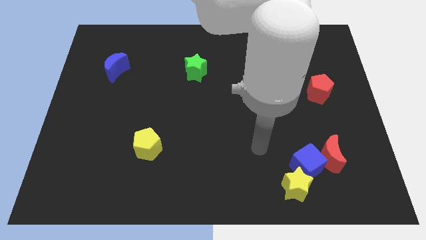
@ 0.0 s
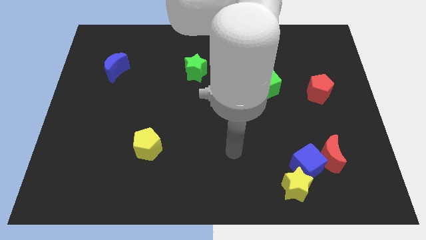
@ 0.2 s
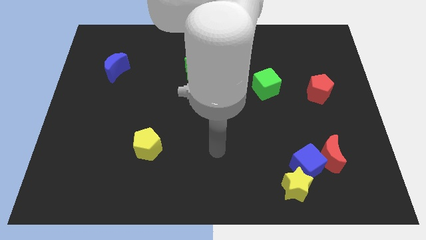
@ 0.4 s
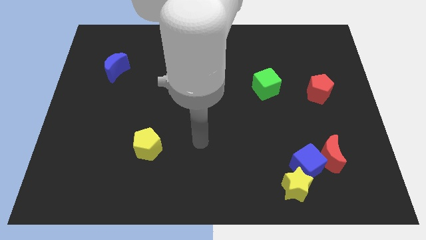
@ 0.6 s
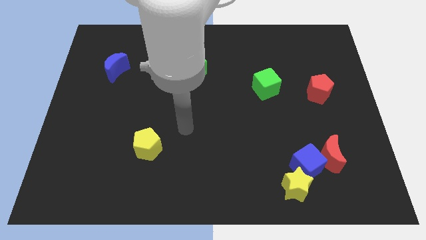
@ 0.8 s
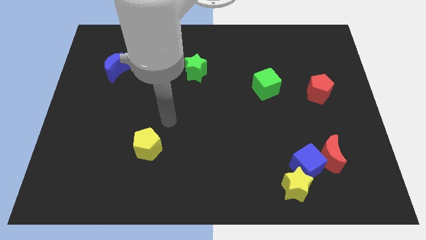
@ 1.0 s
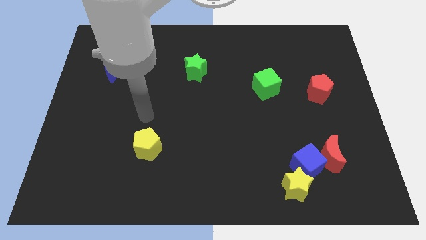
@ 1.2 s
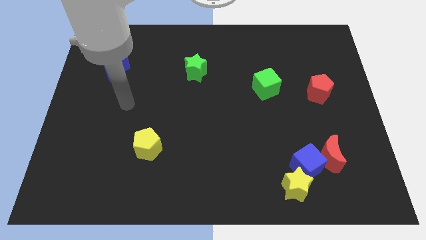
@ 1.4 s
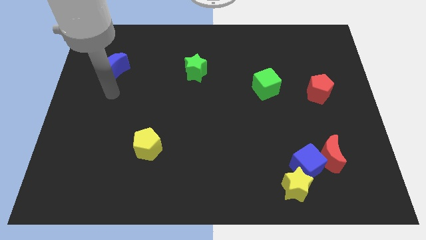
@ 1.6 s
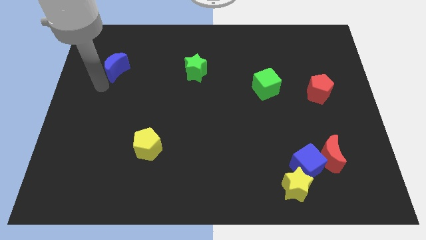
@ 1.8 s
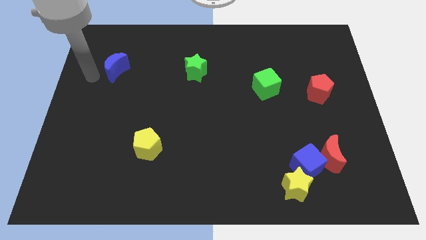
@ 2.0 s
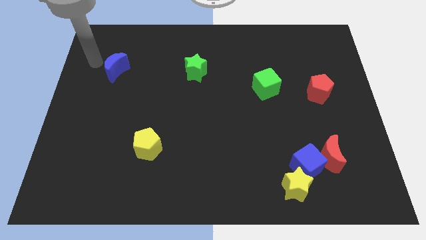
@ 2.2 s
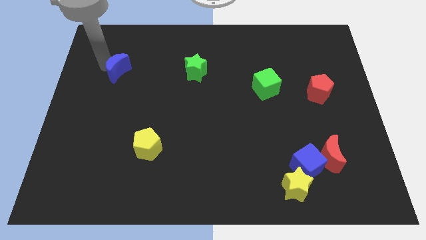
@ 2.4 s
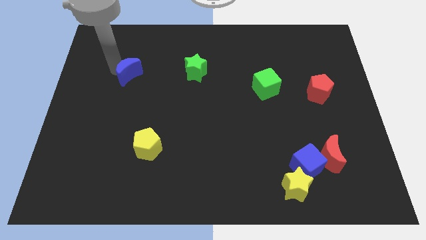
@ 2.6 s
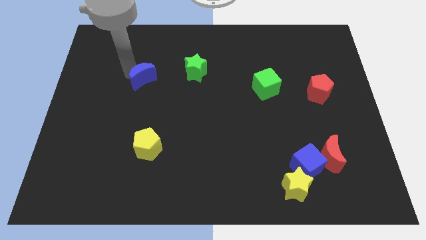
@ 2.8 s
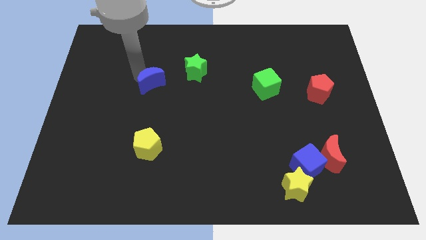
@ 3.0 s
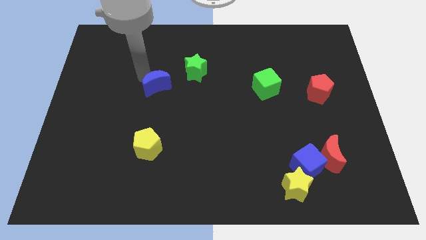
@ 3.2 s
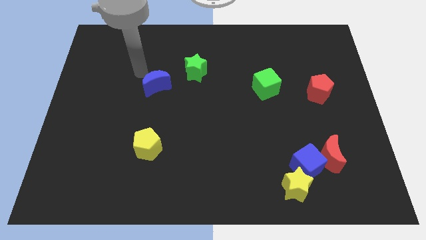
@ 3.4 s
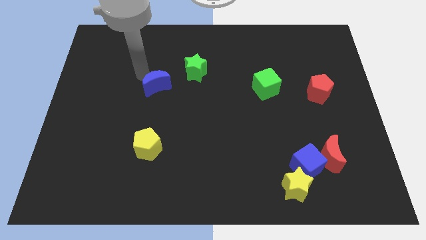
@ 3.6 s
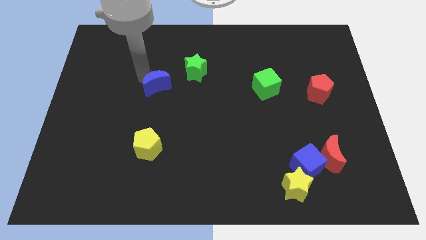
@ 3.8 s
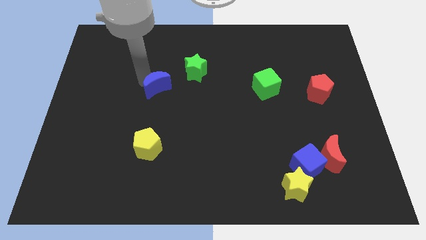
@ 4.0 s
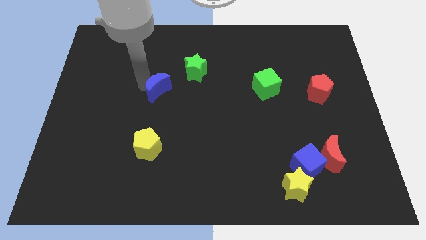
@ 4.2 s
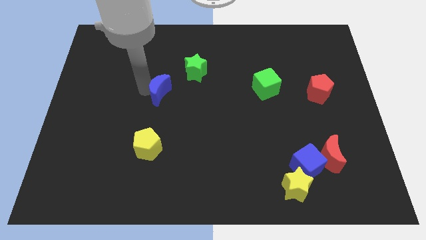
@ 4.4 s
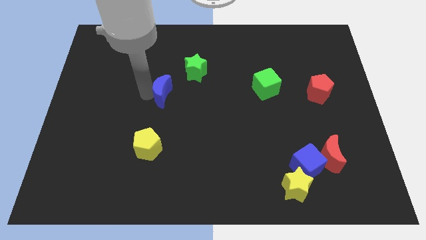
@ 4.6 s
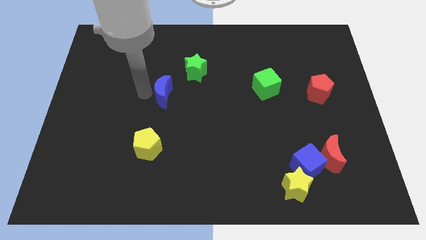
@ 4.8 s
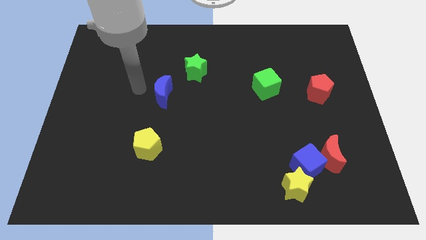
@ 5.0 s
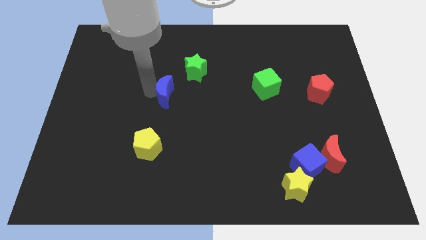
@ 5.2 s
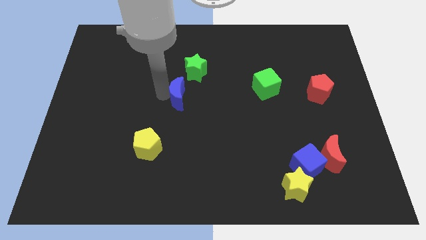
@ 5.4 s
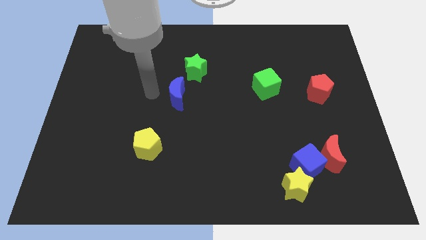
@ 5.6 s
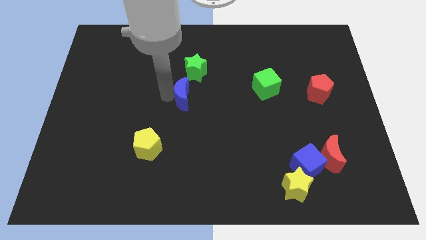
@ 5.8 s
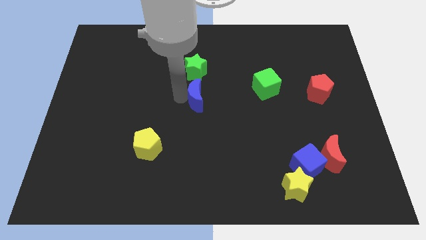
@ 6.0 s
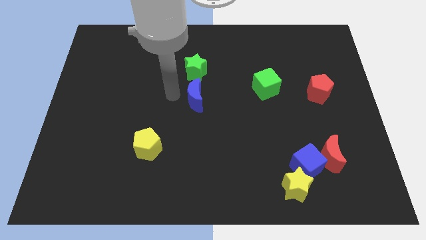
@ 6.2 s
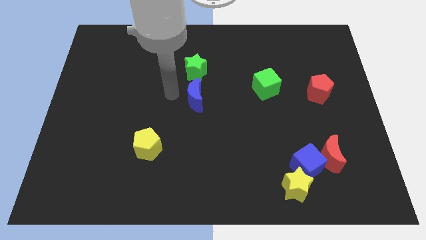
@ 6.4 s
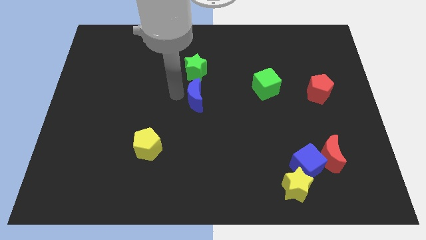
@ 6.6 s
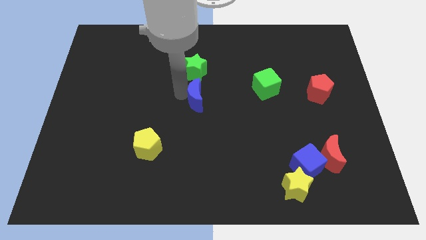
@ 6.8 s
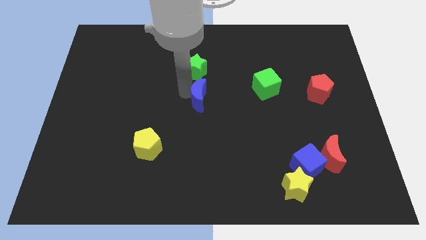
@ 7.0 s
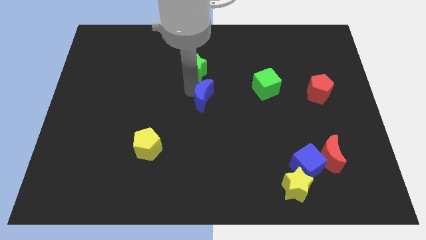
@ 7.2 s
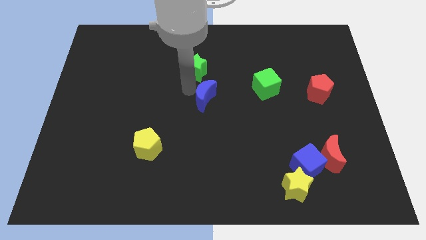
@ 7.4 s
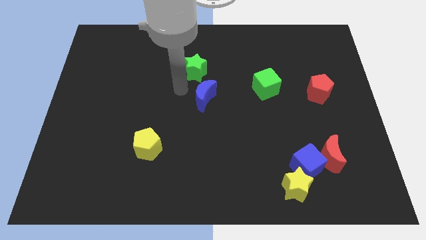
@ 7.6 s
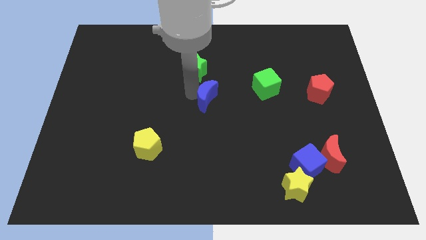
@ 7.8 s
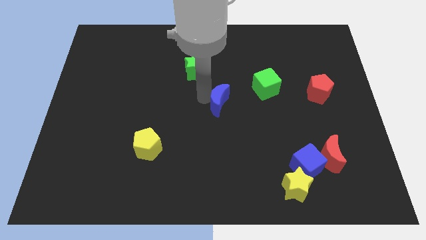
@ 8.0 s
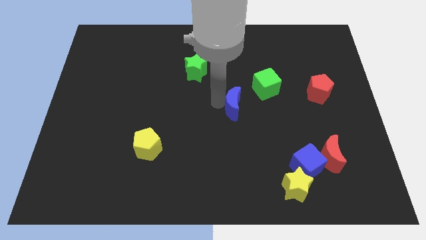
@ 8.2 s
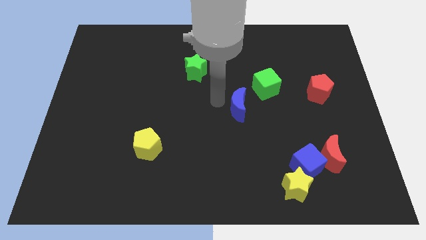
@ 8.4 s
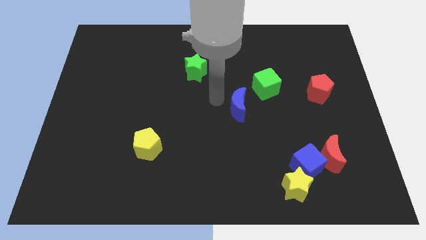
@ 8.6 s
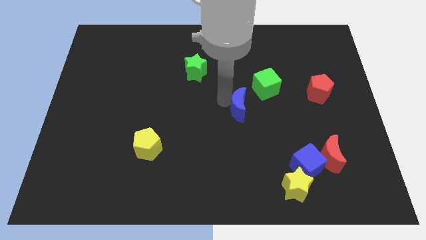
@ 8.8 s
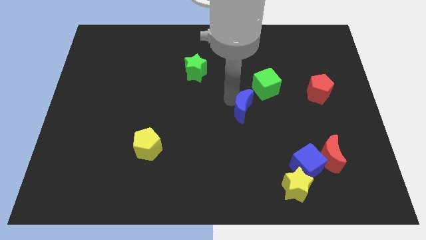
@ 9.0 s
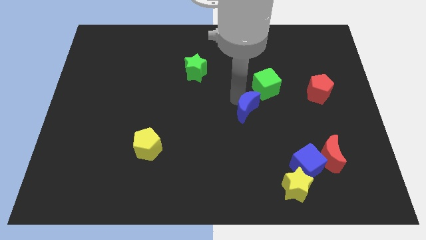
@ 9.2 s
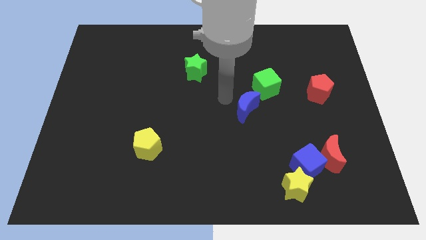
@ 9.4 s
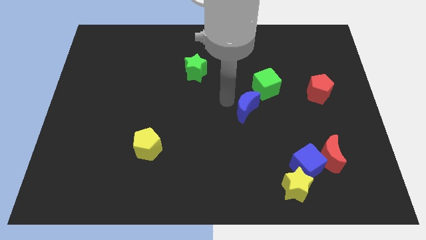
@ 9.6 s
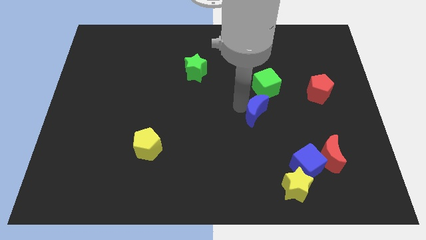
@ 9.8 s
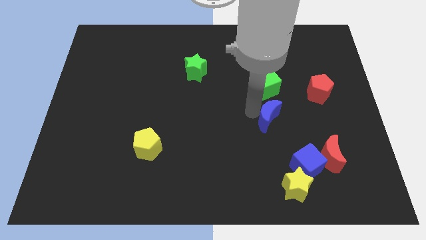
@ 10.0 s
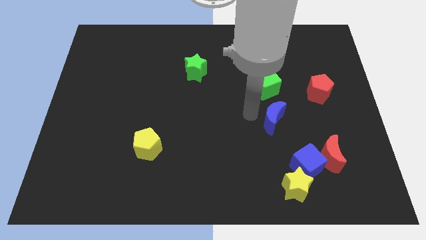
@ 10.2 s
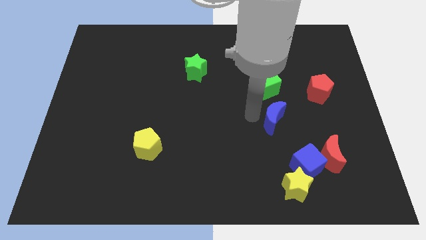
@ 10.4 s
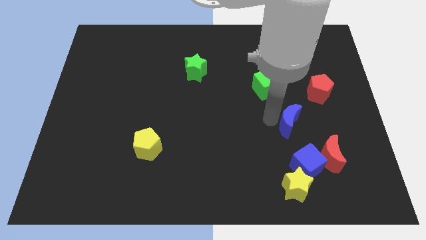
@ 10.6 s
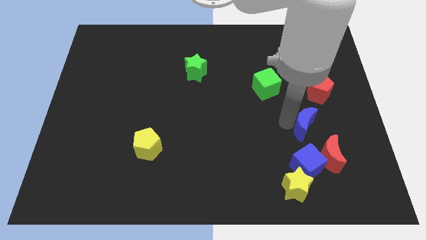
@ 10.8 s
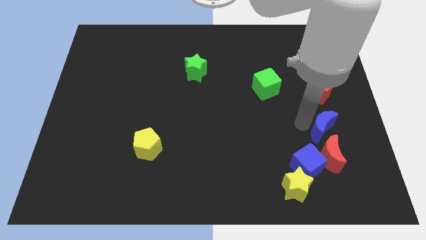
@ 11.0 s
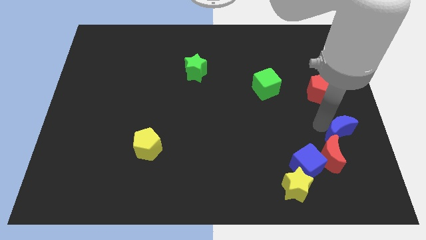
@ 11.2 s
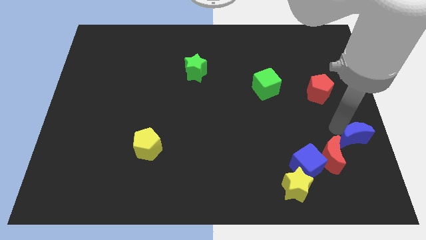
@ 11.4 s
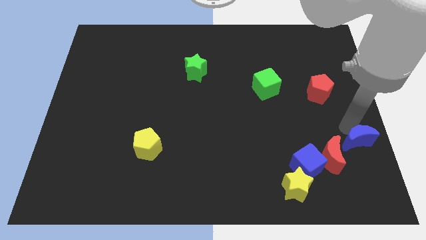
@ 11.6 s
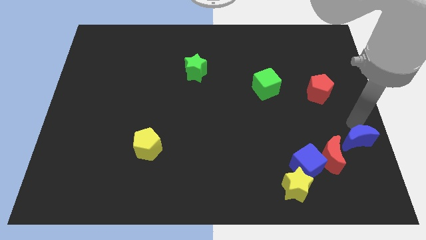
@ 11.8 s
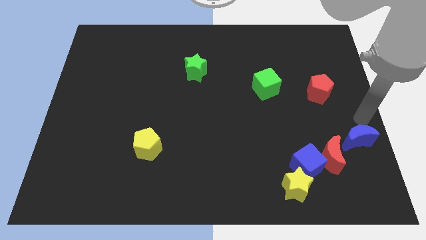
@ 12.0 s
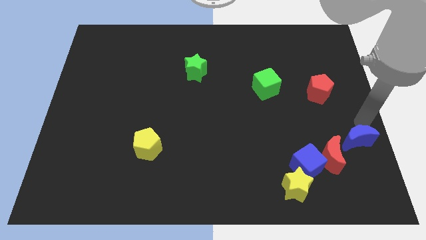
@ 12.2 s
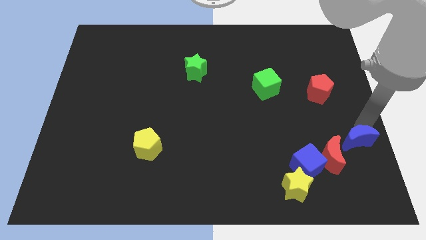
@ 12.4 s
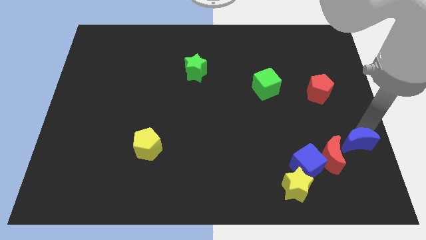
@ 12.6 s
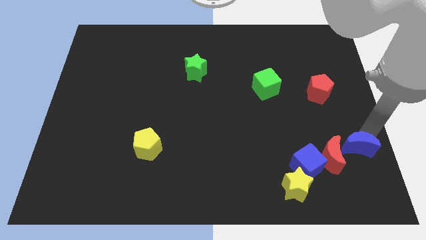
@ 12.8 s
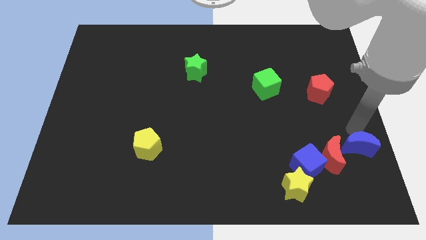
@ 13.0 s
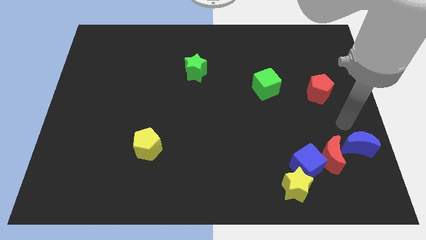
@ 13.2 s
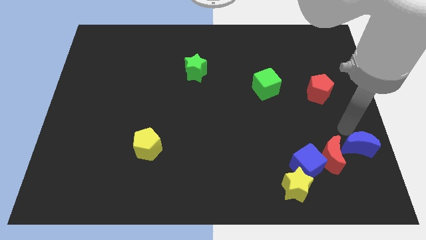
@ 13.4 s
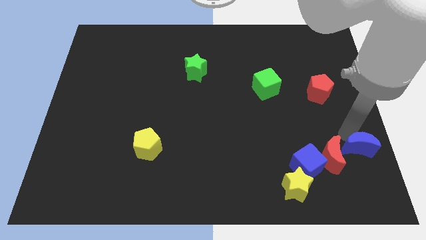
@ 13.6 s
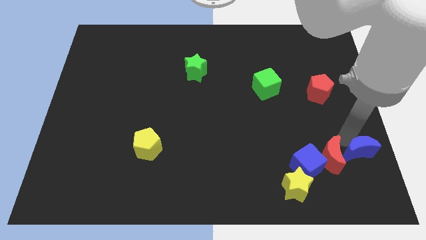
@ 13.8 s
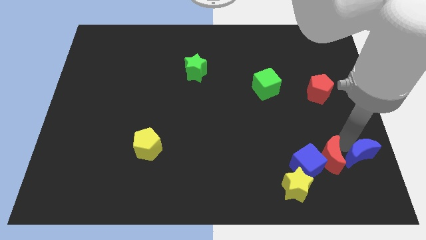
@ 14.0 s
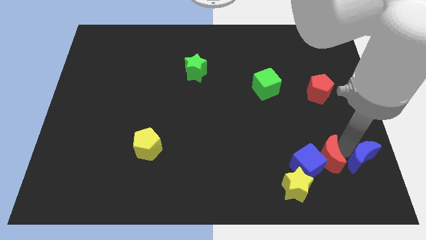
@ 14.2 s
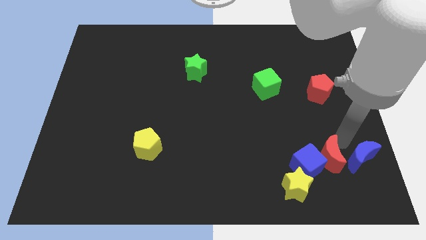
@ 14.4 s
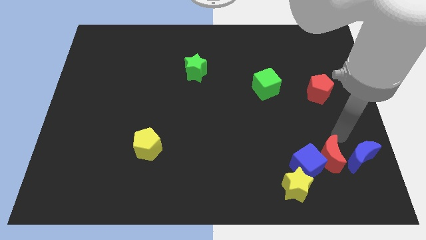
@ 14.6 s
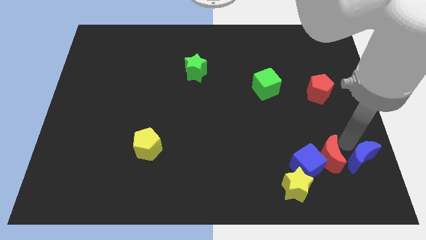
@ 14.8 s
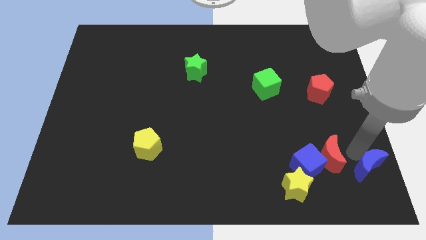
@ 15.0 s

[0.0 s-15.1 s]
push the blue moon to the bottom right
